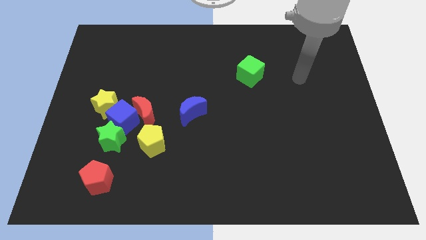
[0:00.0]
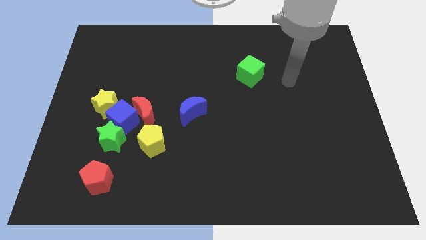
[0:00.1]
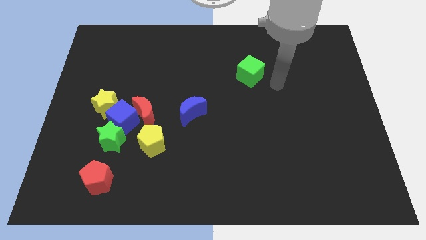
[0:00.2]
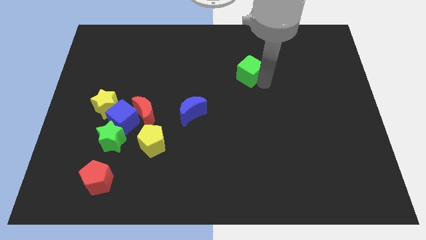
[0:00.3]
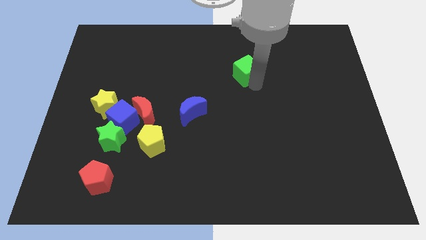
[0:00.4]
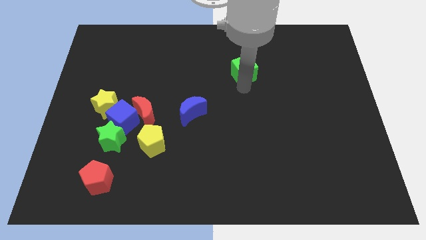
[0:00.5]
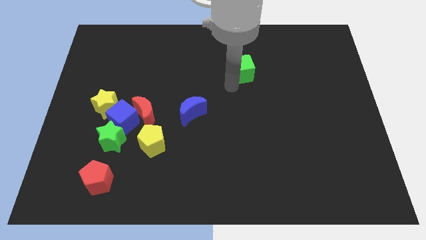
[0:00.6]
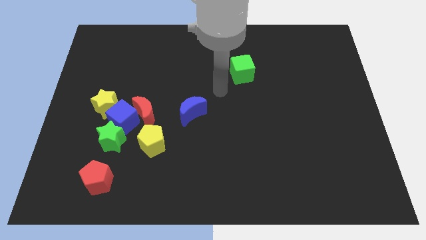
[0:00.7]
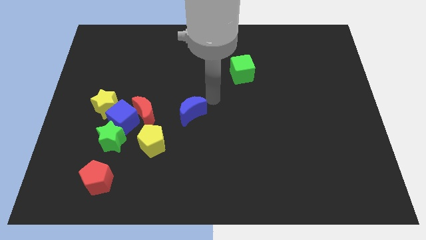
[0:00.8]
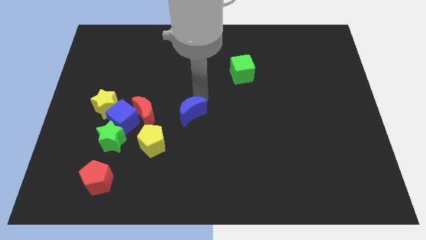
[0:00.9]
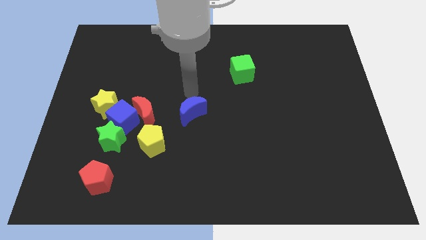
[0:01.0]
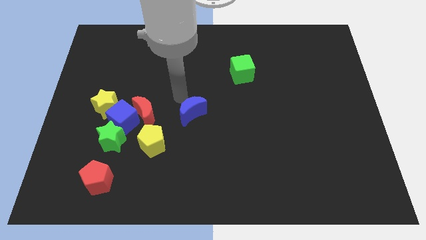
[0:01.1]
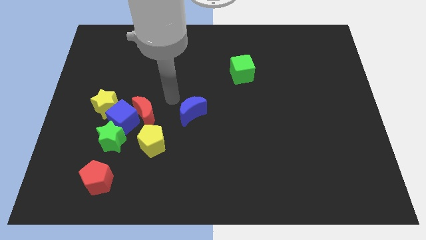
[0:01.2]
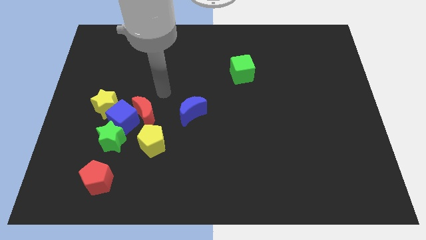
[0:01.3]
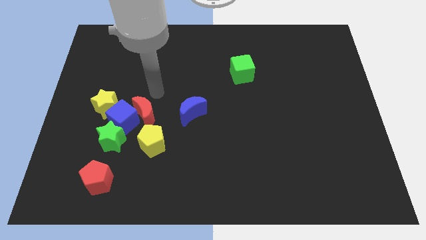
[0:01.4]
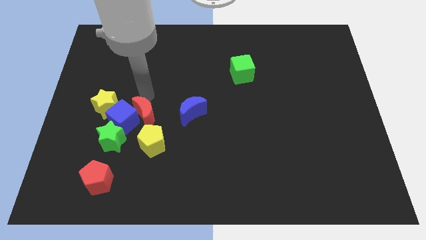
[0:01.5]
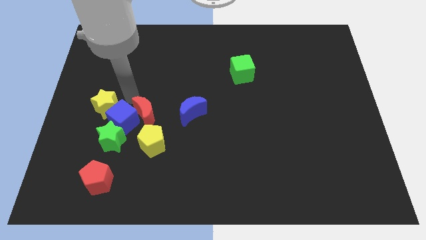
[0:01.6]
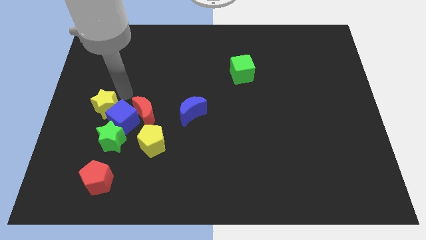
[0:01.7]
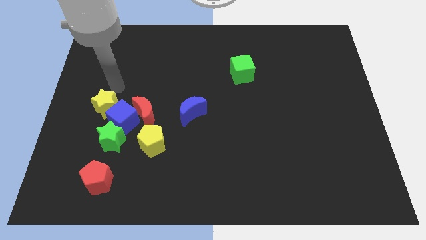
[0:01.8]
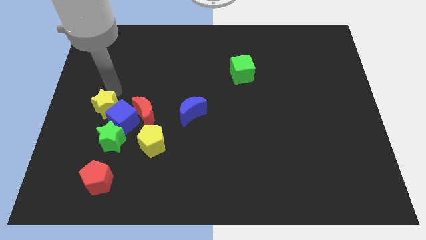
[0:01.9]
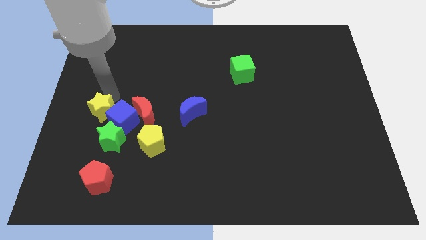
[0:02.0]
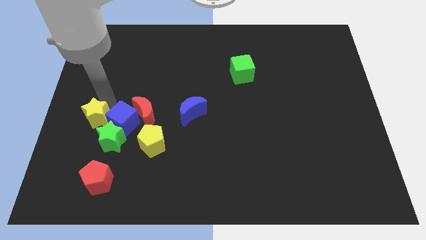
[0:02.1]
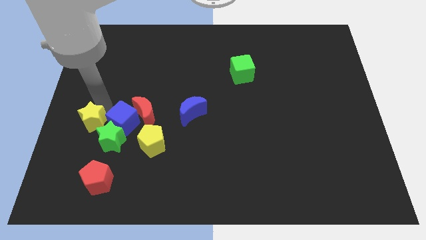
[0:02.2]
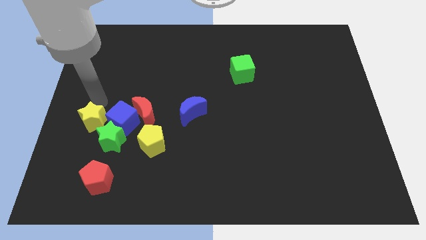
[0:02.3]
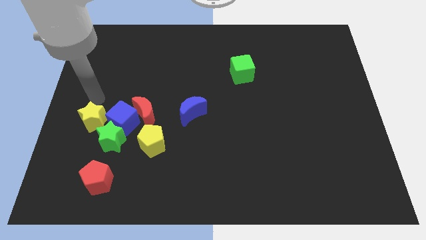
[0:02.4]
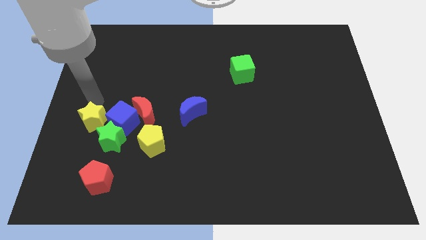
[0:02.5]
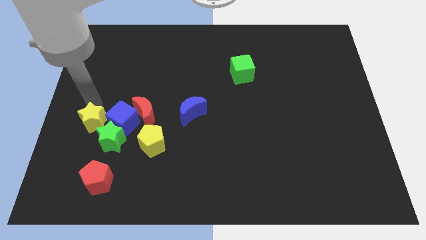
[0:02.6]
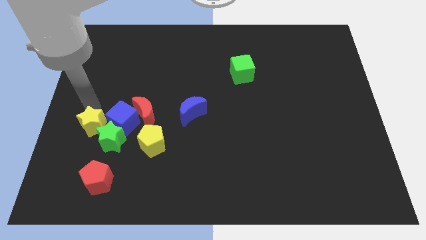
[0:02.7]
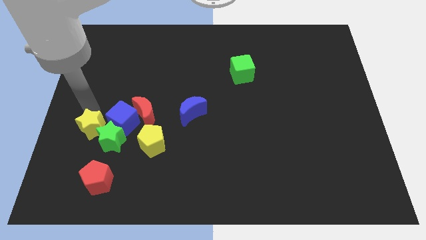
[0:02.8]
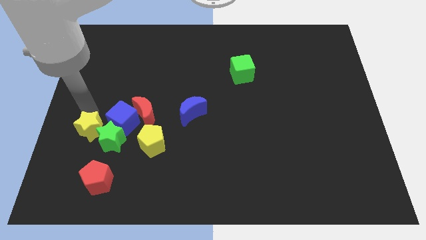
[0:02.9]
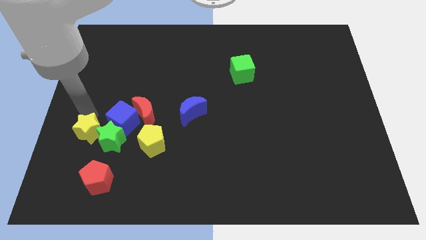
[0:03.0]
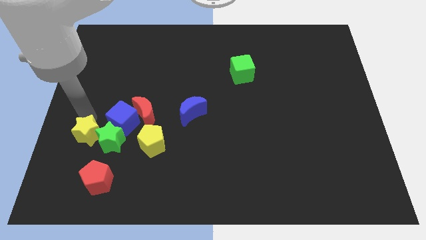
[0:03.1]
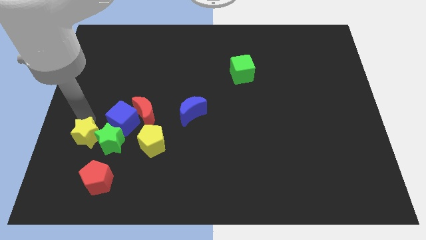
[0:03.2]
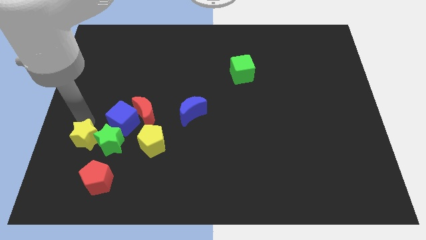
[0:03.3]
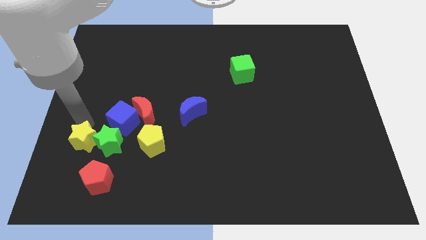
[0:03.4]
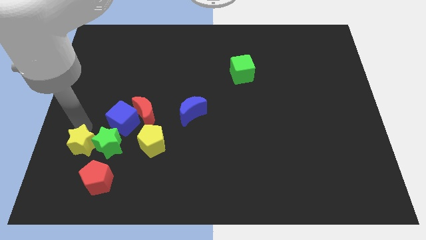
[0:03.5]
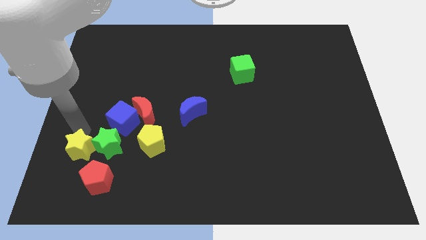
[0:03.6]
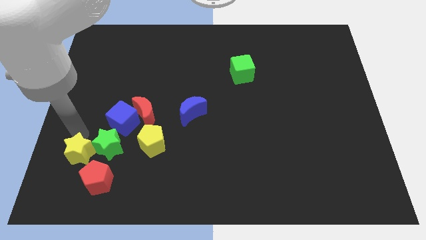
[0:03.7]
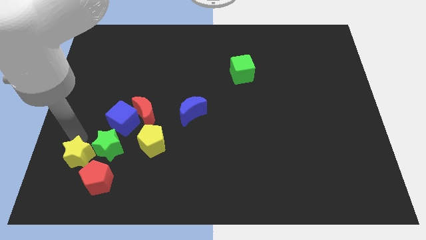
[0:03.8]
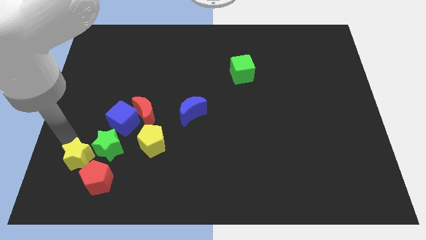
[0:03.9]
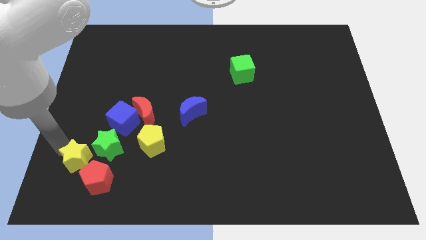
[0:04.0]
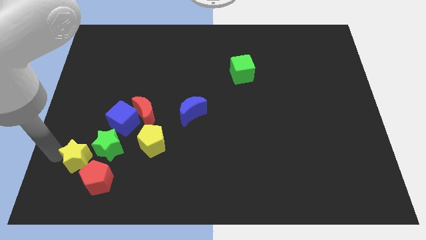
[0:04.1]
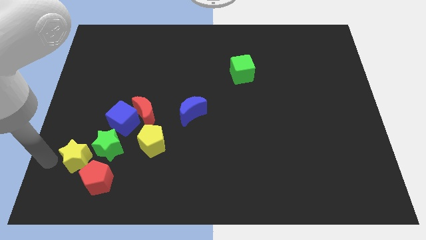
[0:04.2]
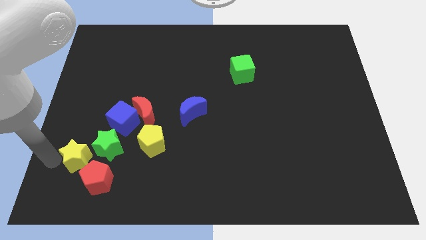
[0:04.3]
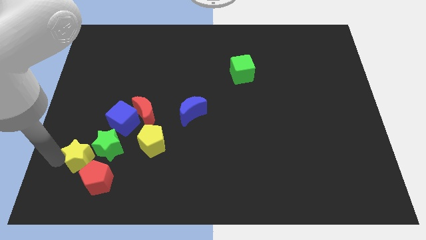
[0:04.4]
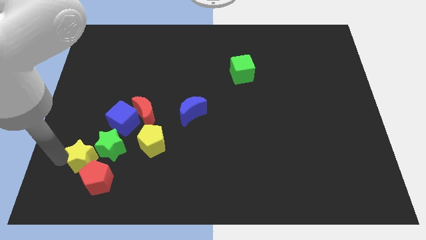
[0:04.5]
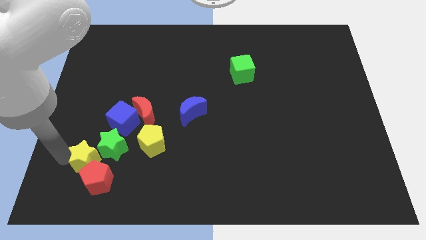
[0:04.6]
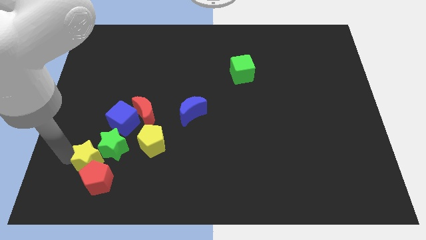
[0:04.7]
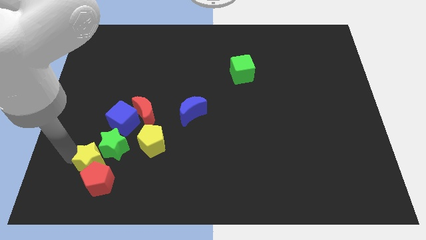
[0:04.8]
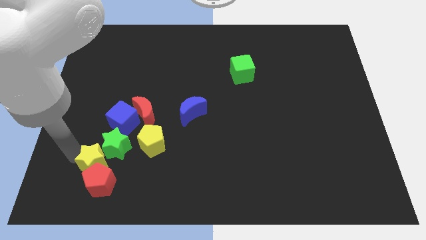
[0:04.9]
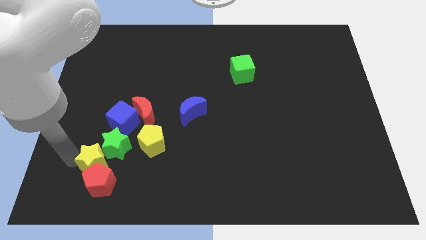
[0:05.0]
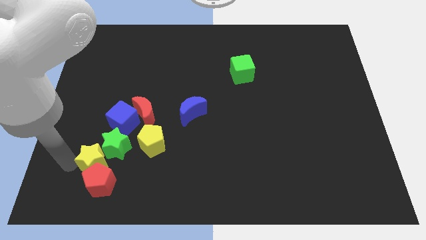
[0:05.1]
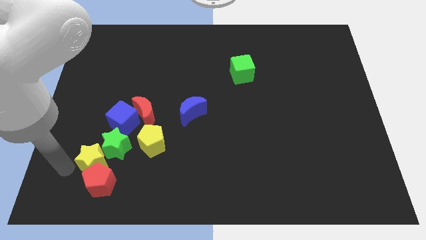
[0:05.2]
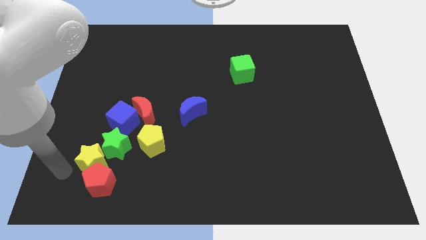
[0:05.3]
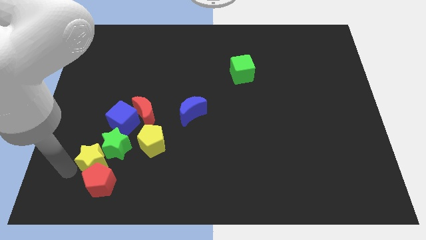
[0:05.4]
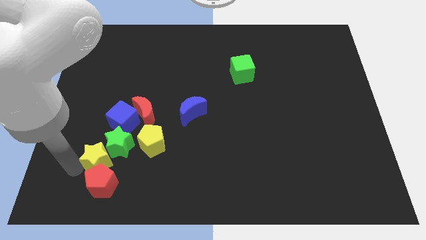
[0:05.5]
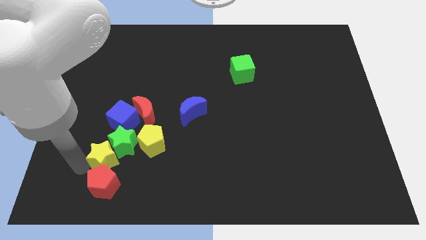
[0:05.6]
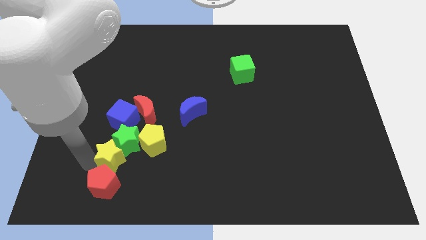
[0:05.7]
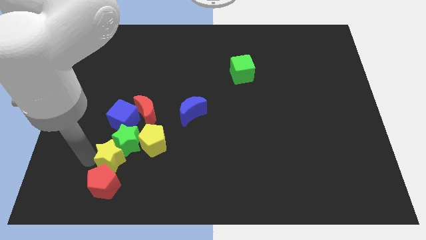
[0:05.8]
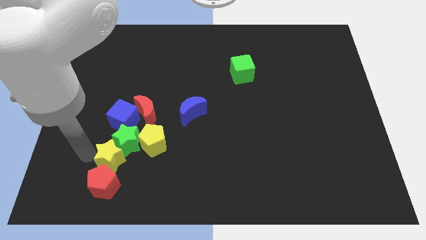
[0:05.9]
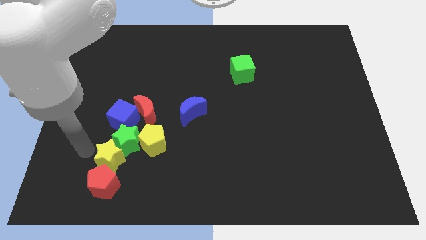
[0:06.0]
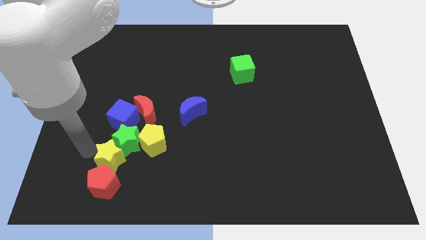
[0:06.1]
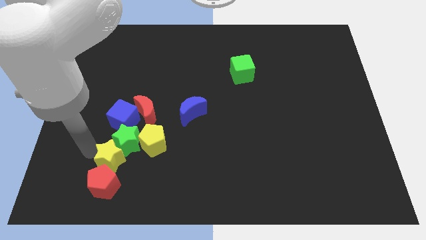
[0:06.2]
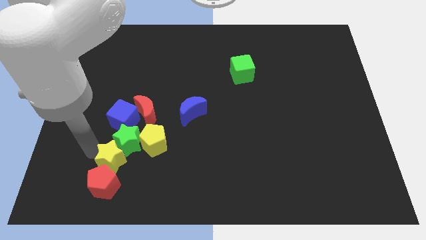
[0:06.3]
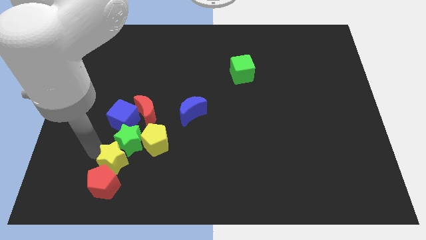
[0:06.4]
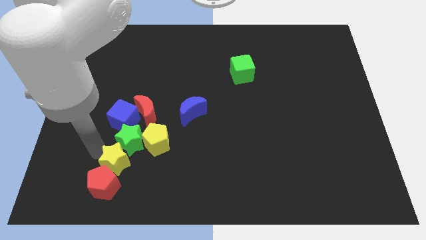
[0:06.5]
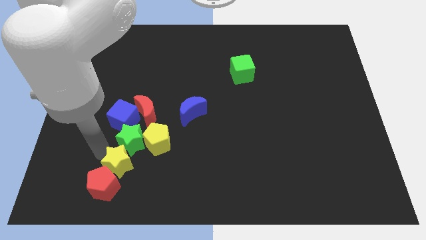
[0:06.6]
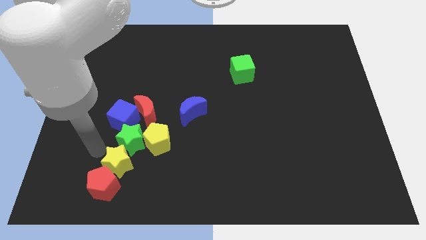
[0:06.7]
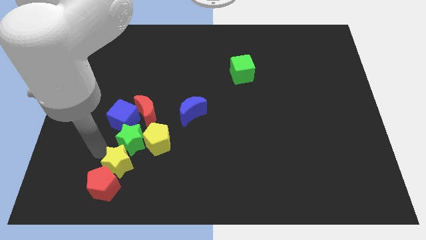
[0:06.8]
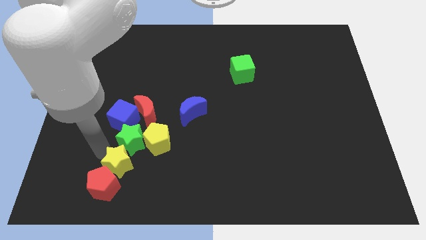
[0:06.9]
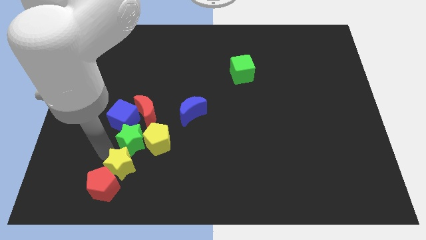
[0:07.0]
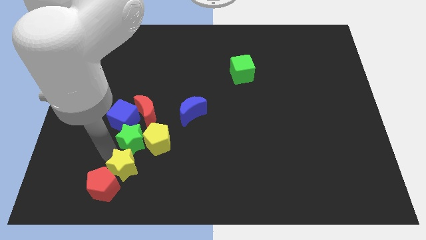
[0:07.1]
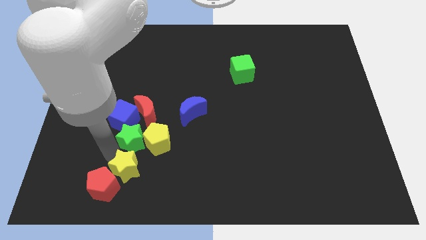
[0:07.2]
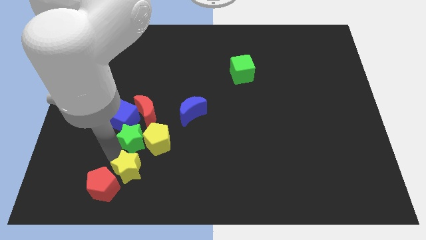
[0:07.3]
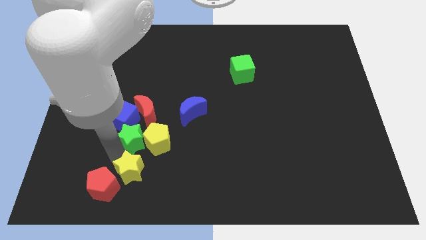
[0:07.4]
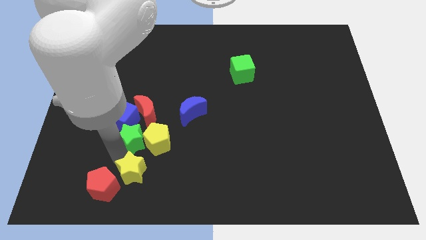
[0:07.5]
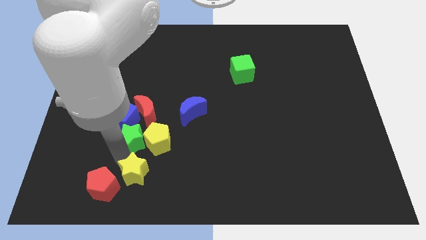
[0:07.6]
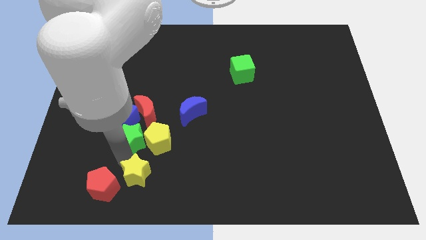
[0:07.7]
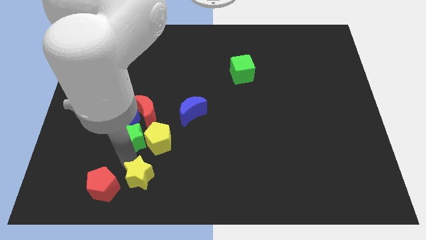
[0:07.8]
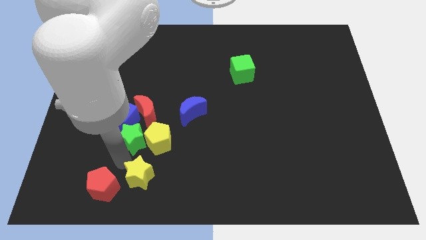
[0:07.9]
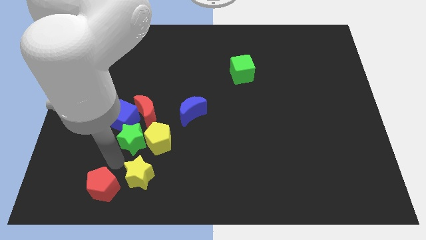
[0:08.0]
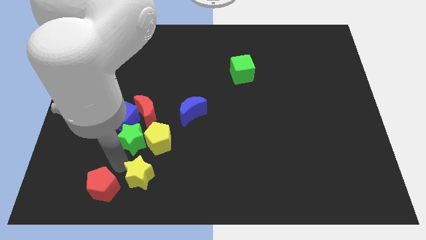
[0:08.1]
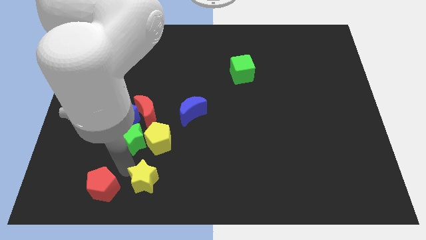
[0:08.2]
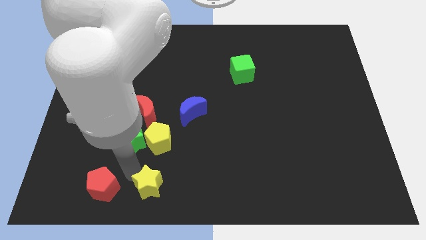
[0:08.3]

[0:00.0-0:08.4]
push the yellow star to the bottom side
